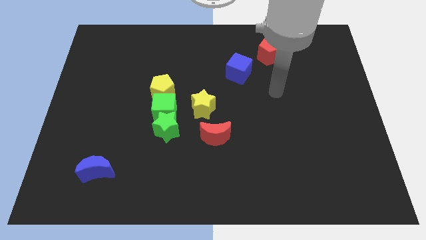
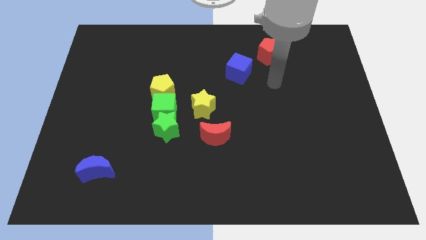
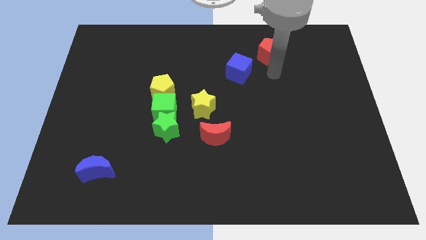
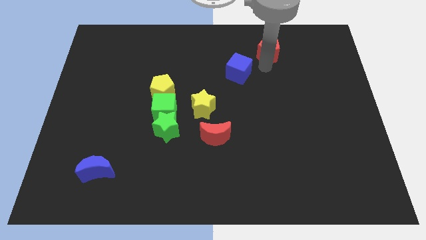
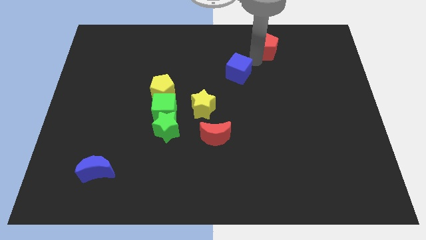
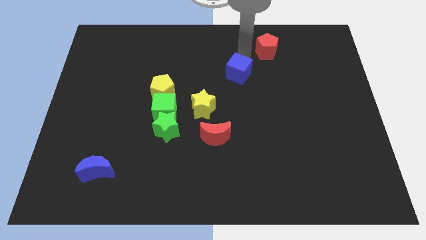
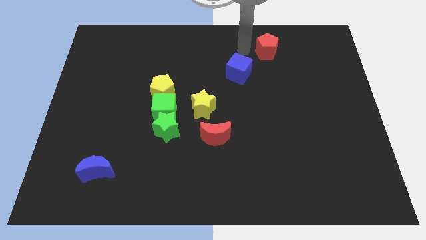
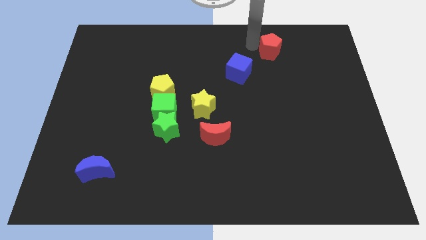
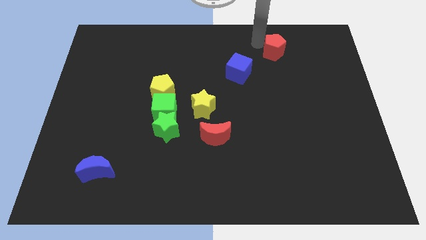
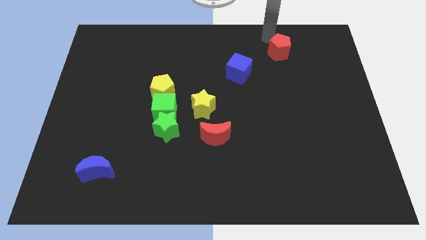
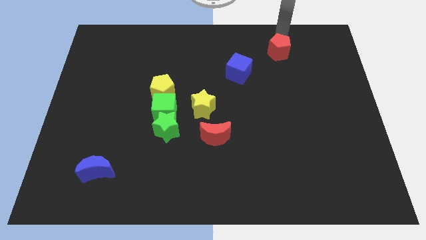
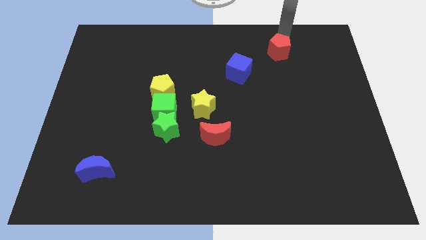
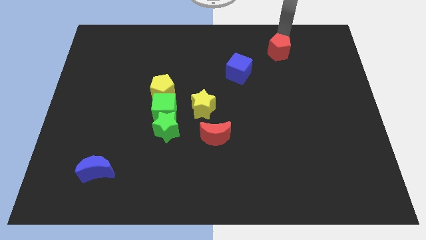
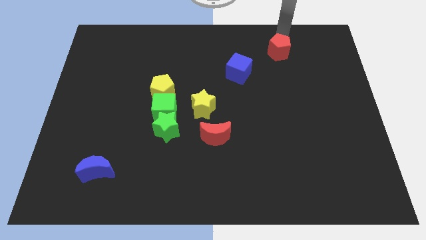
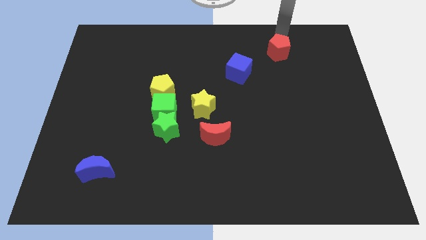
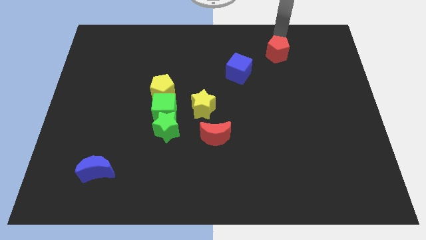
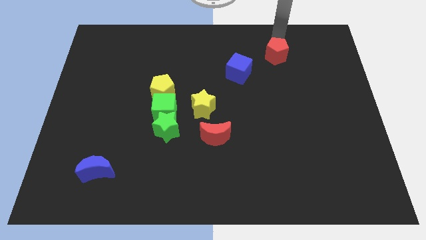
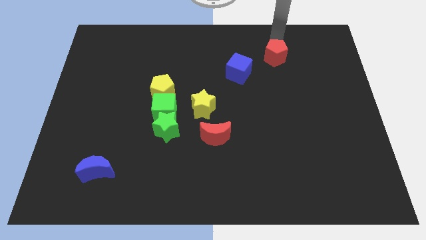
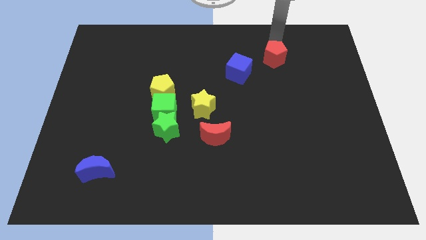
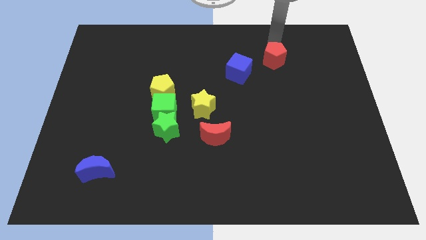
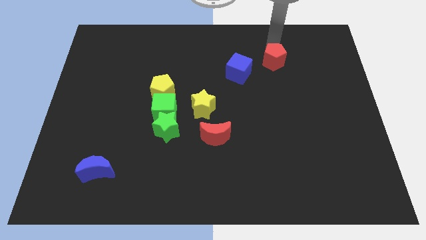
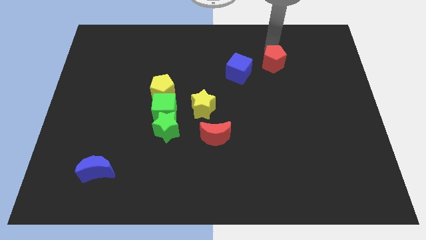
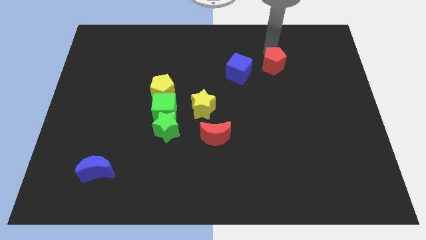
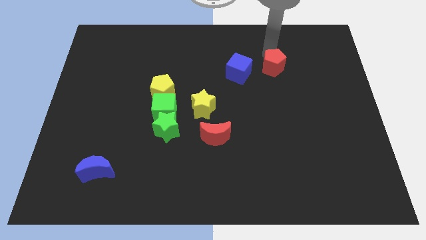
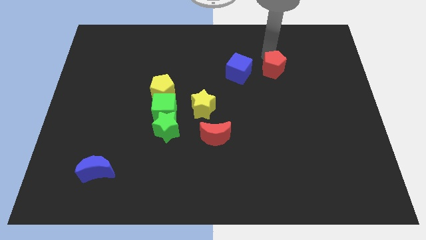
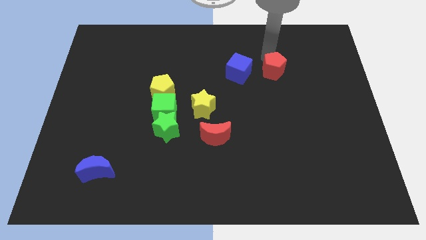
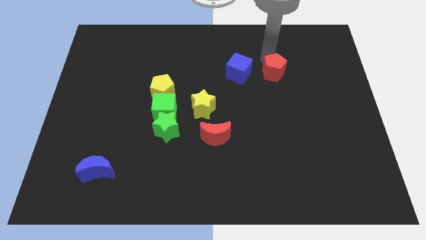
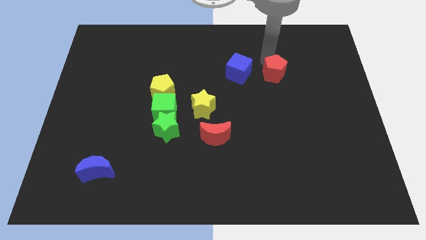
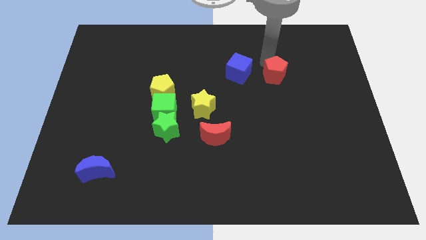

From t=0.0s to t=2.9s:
slightly move the red pentagon down

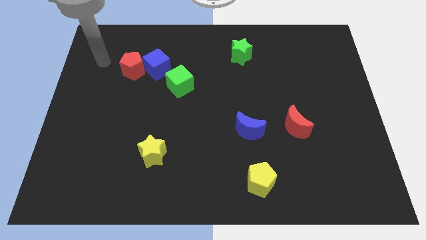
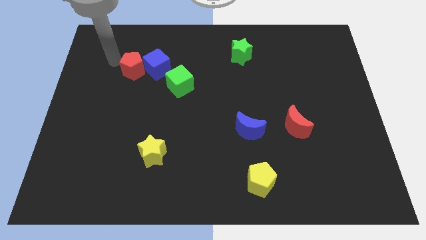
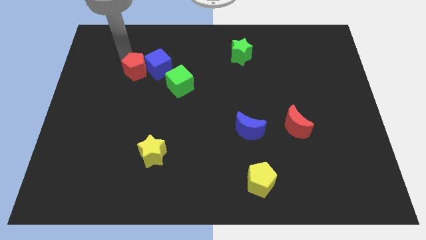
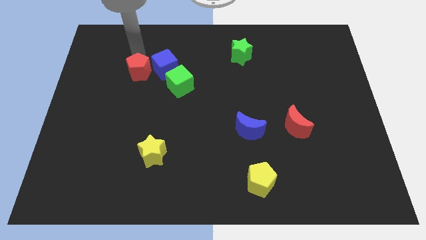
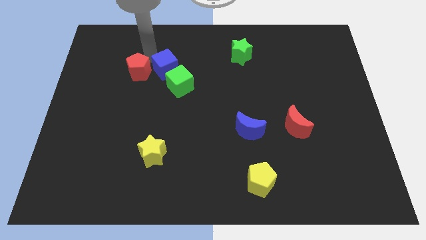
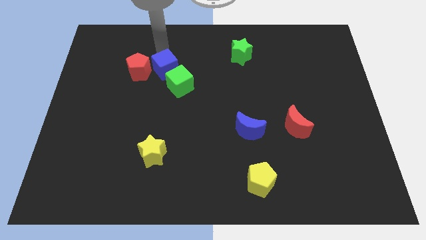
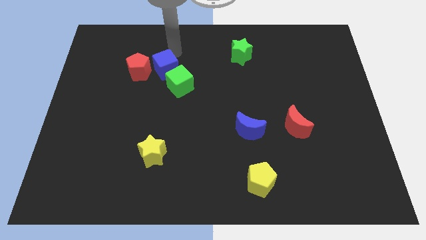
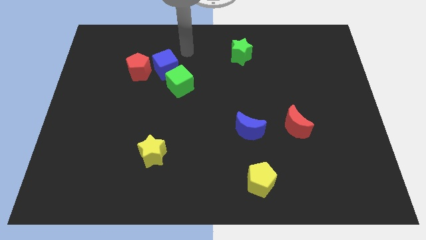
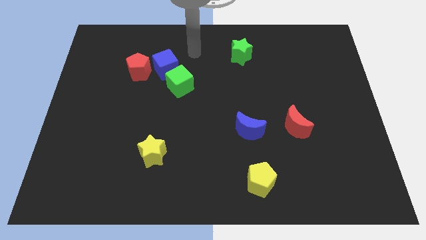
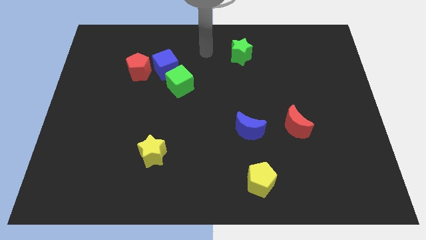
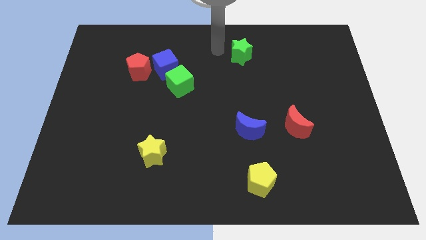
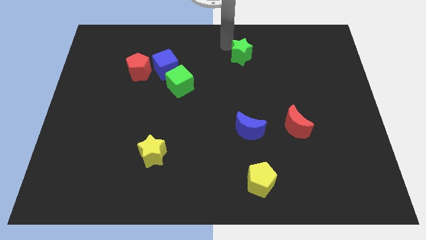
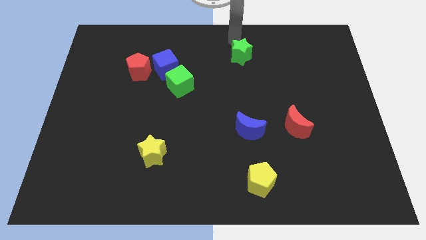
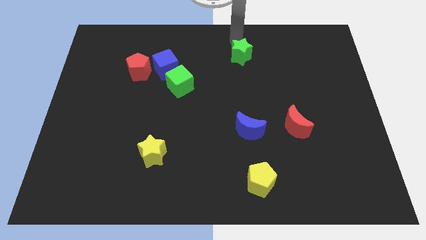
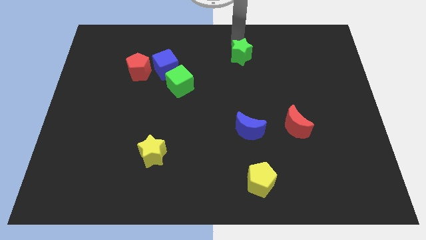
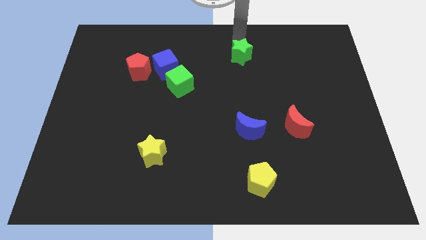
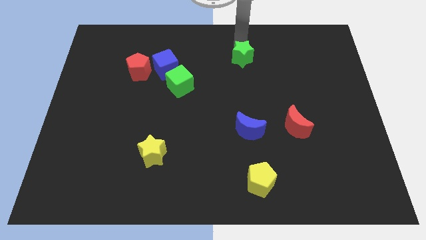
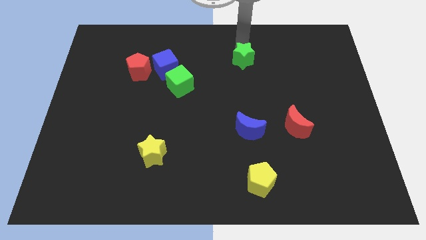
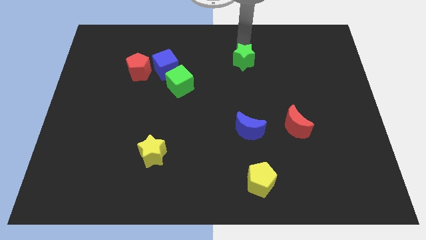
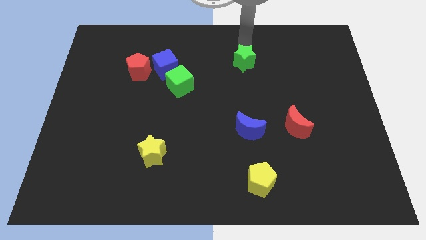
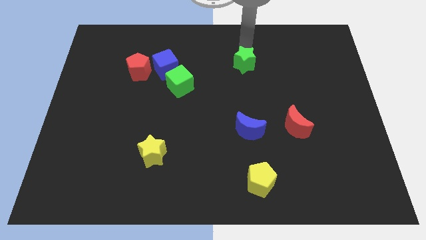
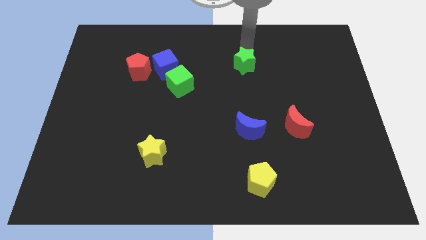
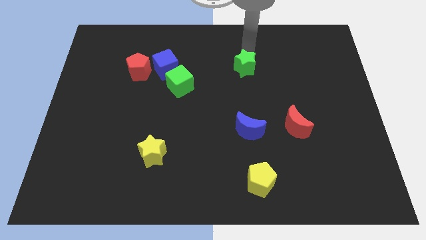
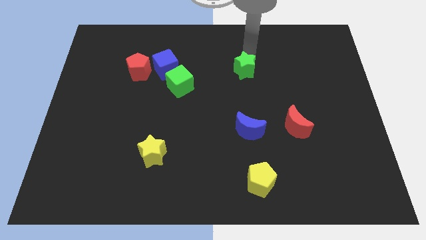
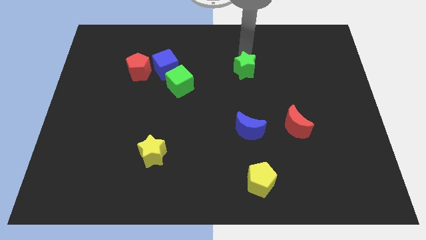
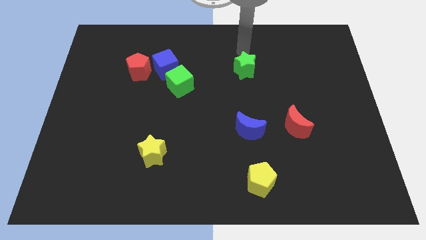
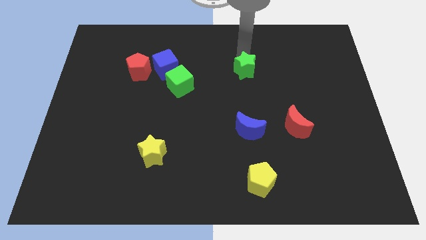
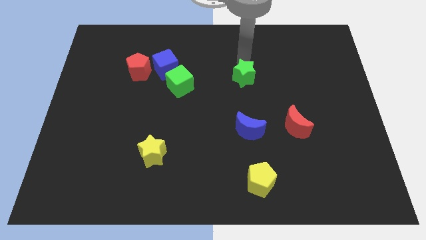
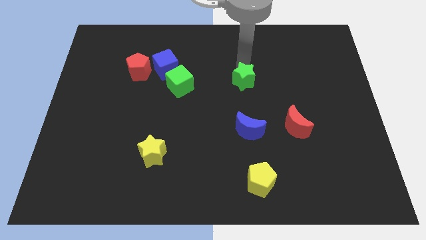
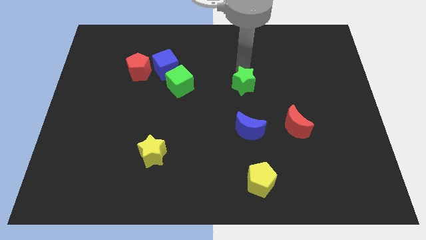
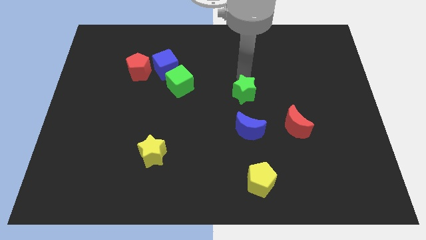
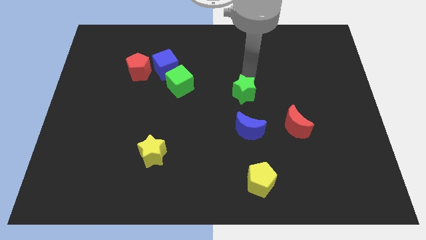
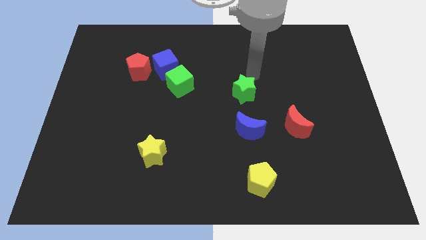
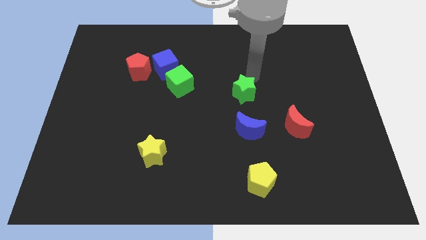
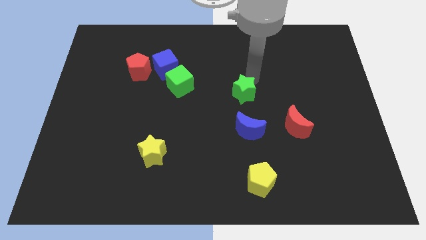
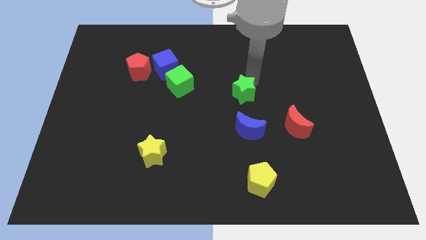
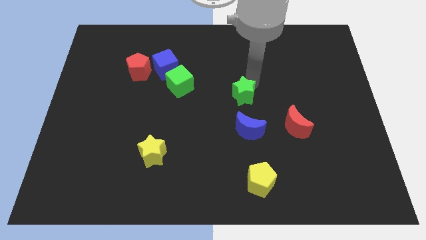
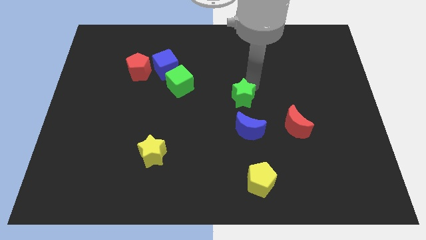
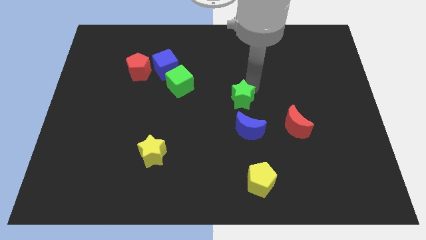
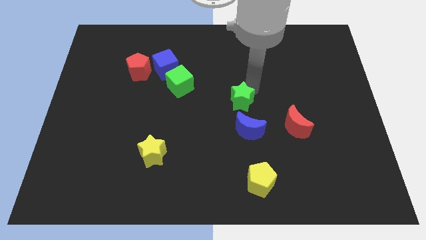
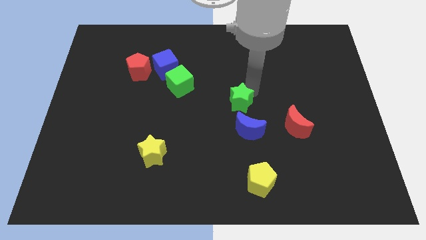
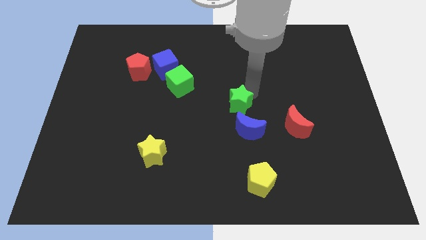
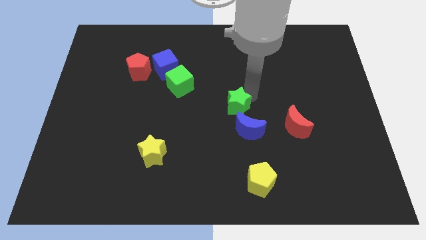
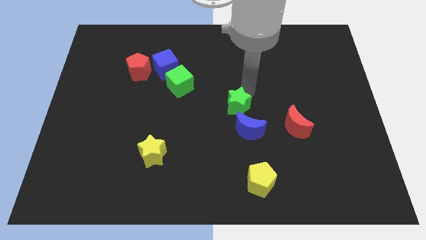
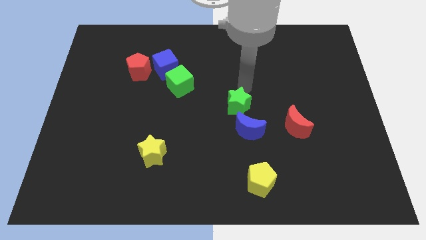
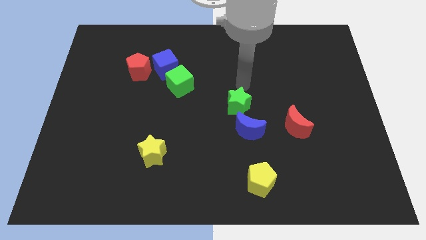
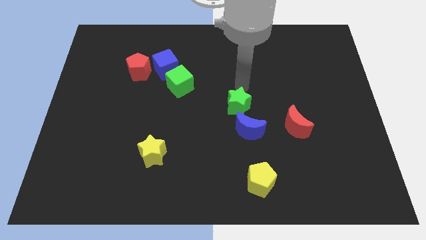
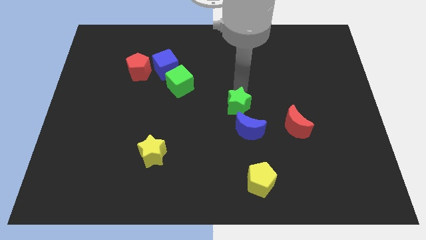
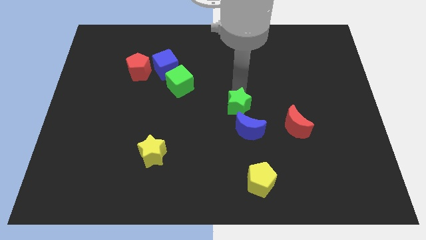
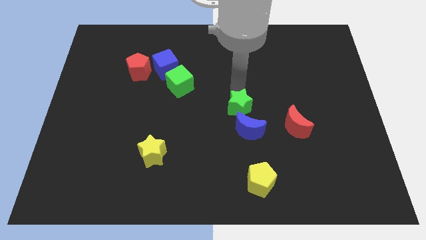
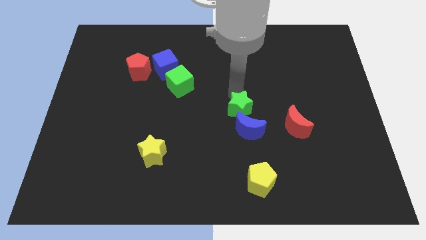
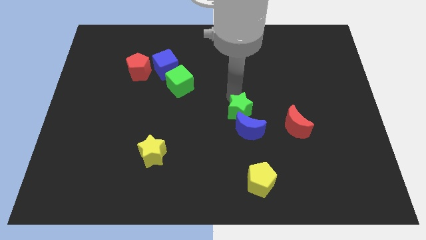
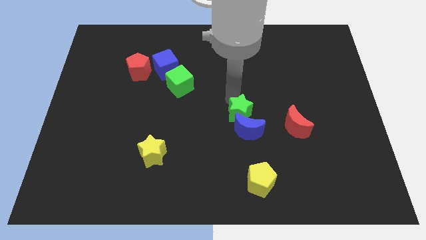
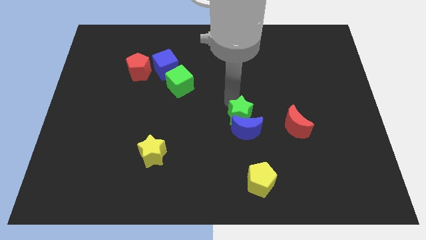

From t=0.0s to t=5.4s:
push the green star down
